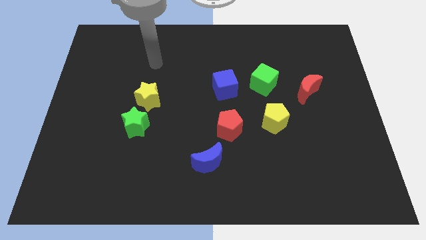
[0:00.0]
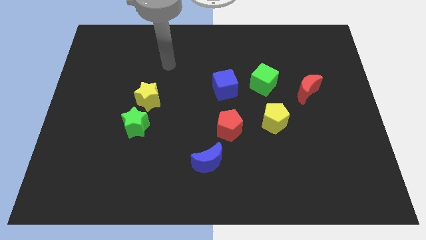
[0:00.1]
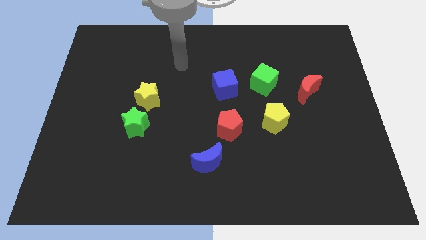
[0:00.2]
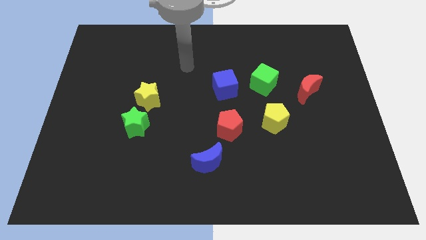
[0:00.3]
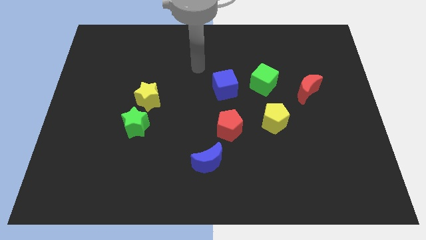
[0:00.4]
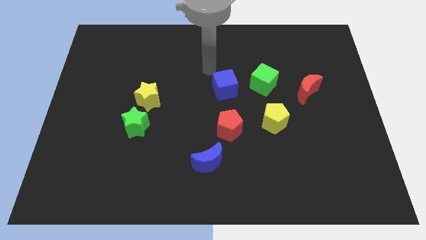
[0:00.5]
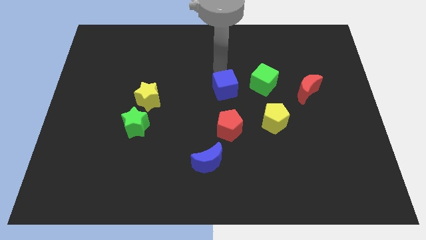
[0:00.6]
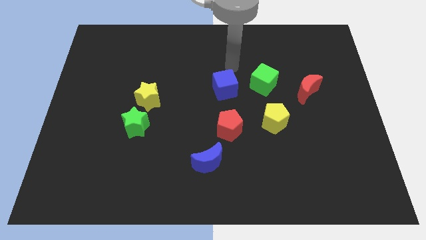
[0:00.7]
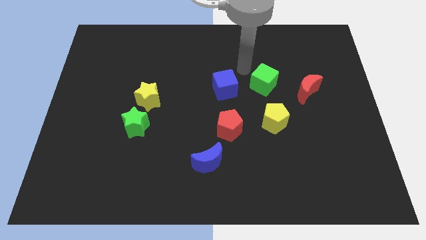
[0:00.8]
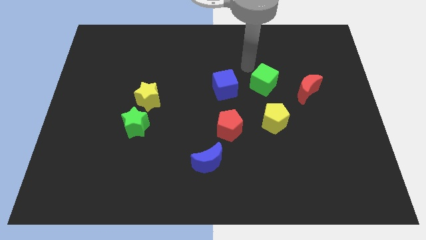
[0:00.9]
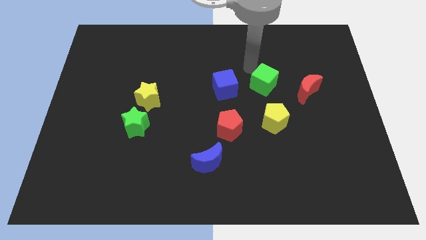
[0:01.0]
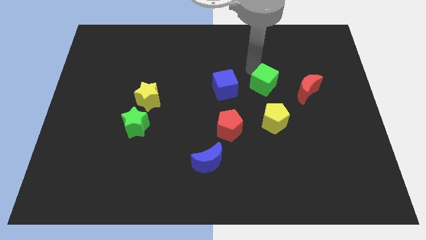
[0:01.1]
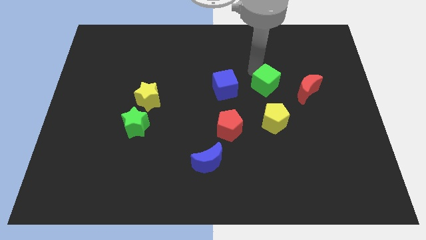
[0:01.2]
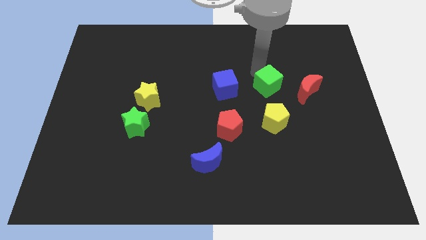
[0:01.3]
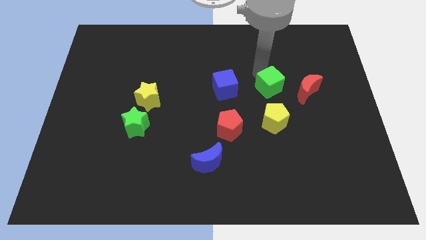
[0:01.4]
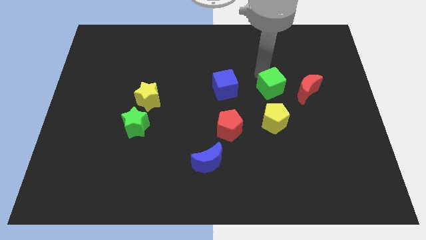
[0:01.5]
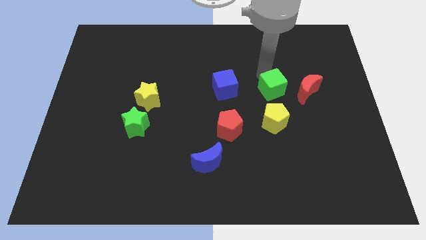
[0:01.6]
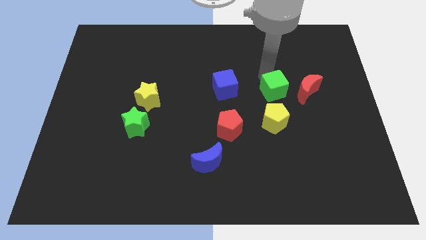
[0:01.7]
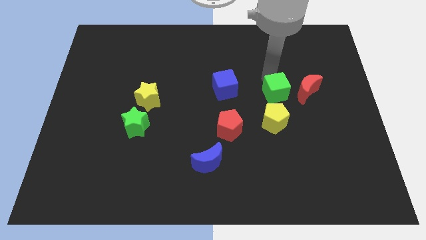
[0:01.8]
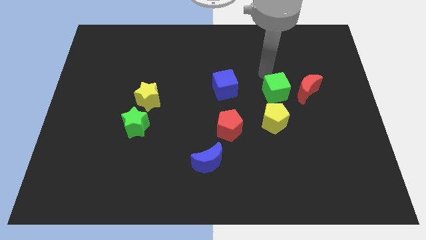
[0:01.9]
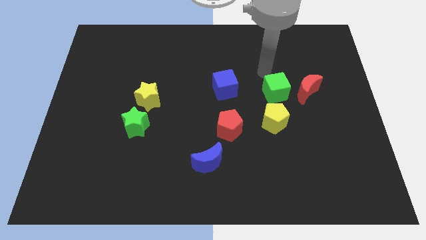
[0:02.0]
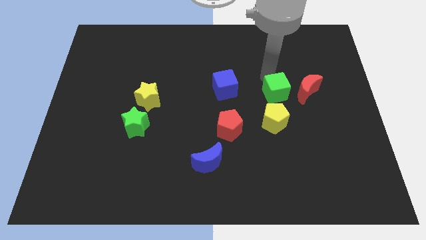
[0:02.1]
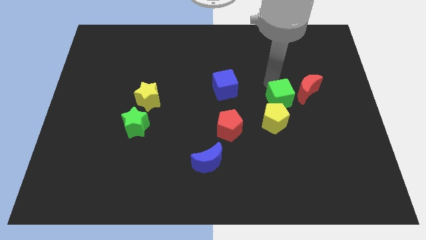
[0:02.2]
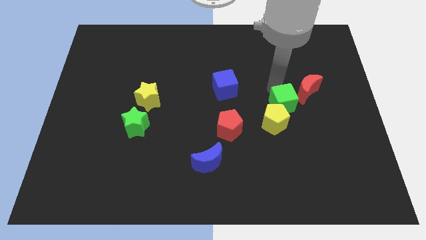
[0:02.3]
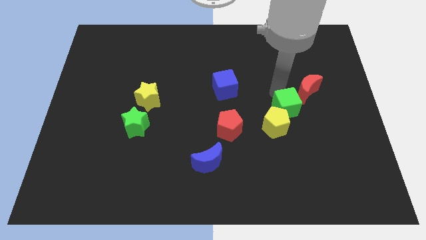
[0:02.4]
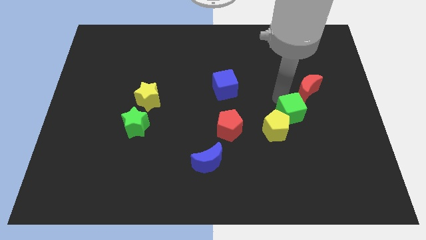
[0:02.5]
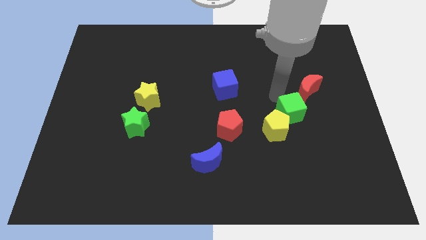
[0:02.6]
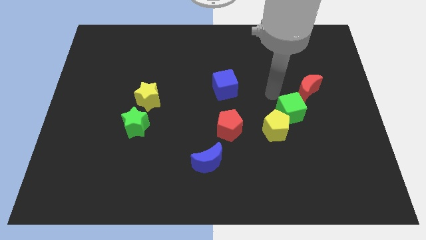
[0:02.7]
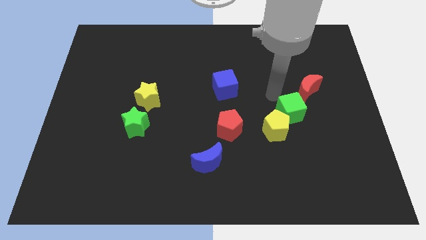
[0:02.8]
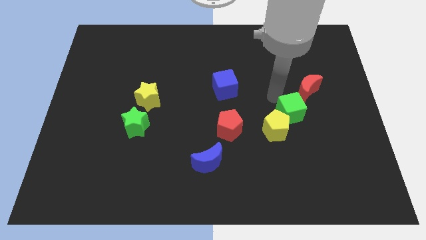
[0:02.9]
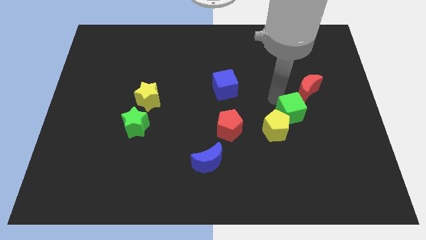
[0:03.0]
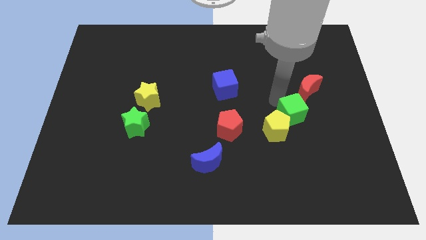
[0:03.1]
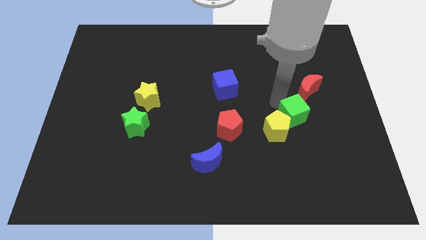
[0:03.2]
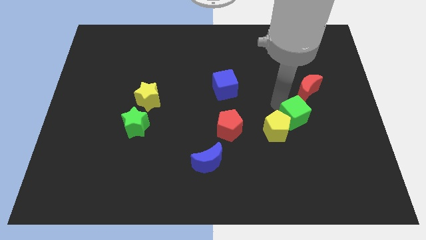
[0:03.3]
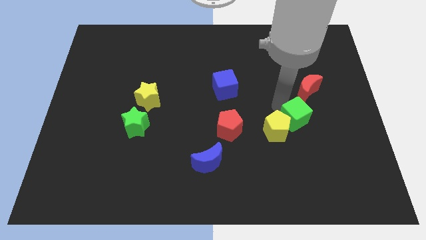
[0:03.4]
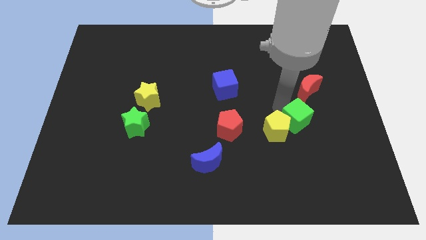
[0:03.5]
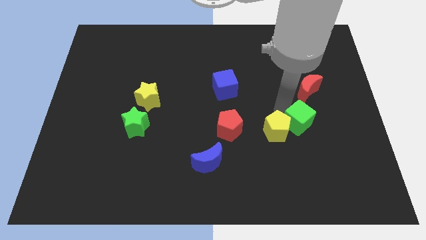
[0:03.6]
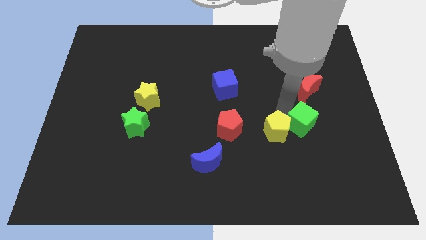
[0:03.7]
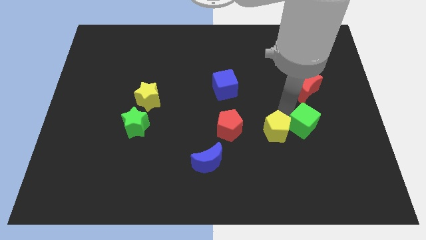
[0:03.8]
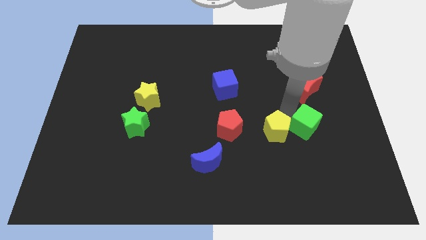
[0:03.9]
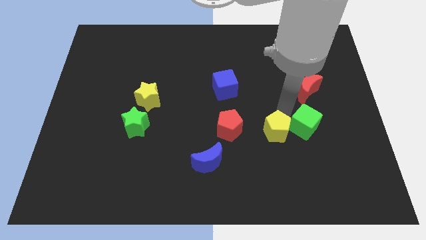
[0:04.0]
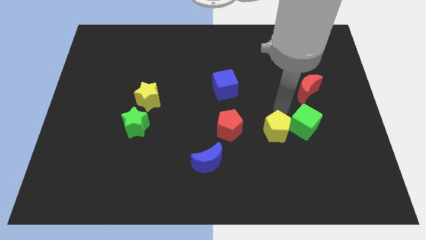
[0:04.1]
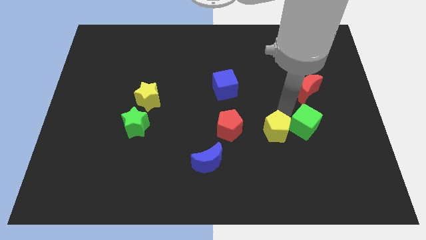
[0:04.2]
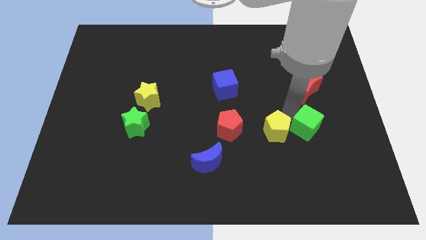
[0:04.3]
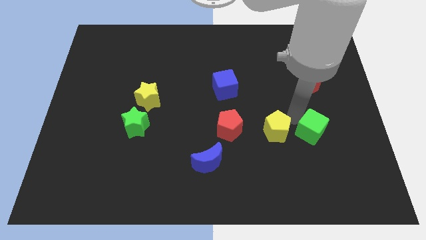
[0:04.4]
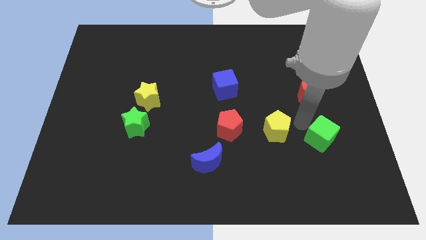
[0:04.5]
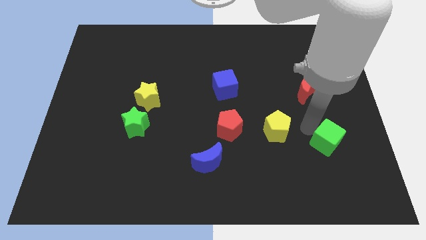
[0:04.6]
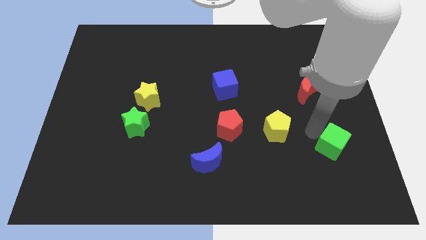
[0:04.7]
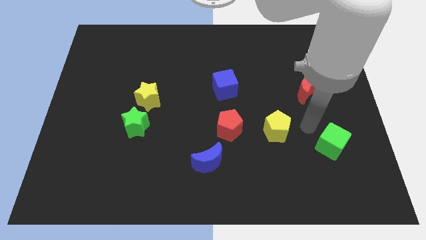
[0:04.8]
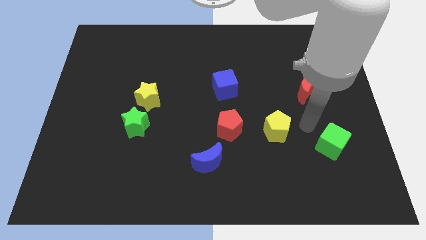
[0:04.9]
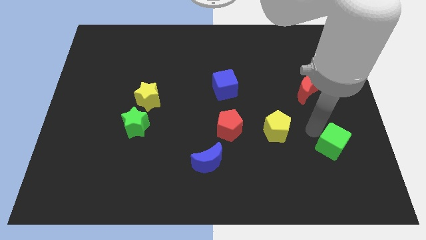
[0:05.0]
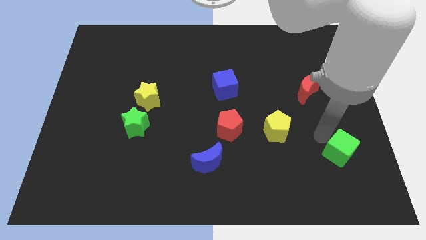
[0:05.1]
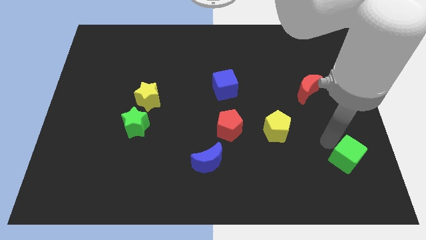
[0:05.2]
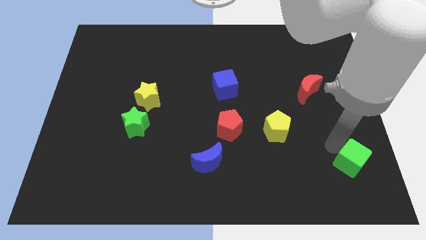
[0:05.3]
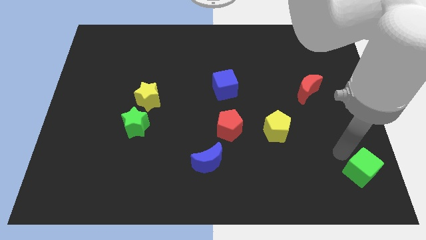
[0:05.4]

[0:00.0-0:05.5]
slide the green cube to the bottom right corner

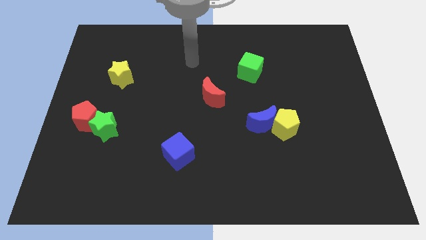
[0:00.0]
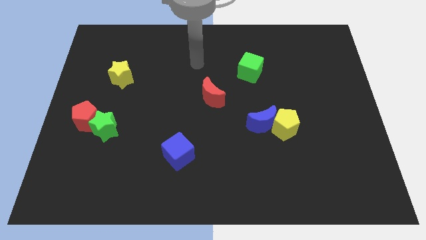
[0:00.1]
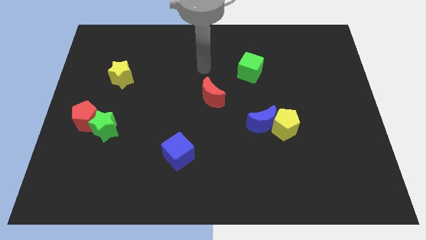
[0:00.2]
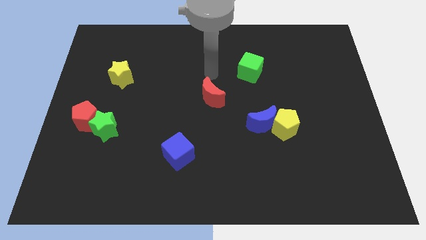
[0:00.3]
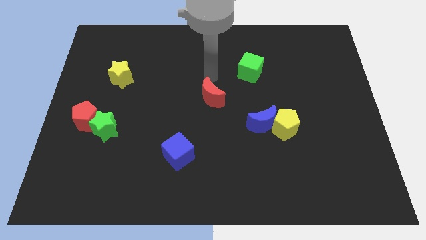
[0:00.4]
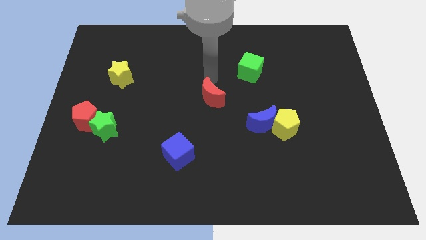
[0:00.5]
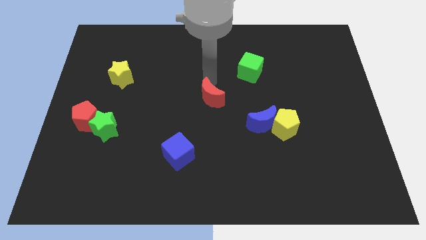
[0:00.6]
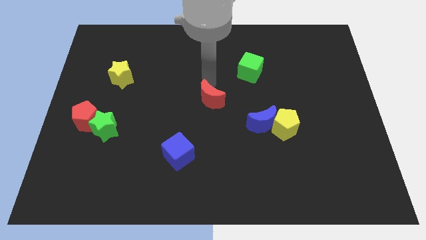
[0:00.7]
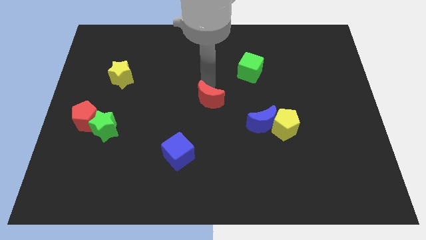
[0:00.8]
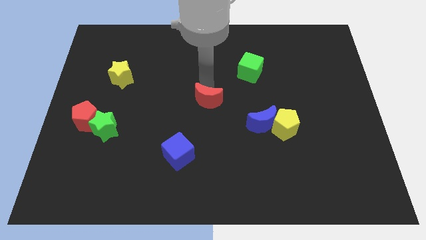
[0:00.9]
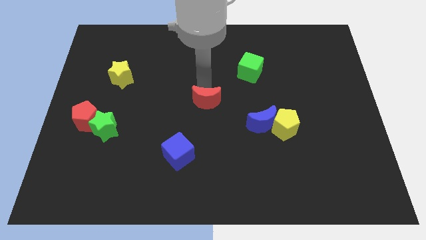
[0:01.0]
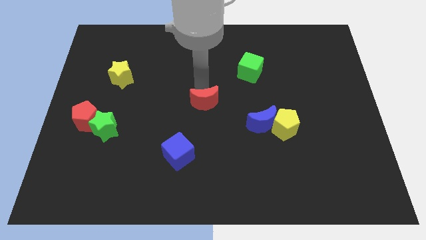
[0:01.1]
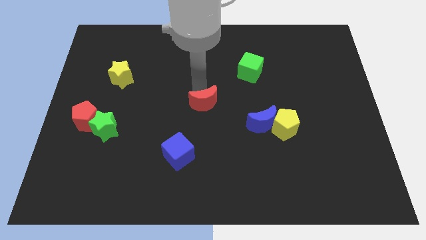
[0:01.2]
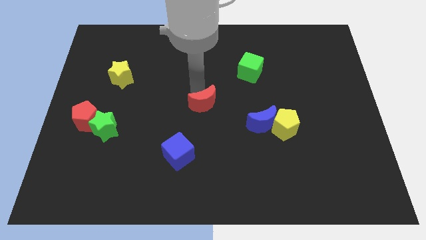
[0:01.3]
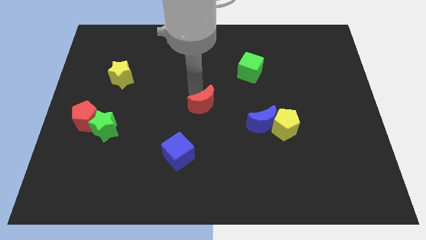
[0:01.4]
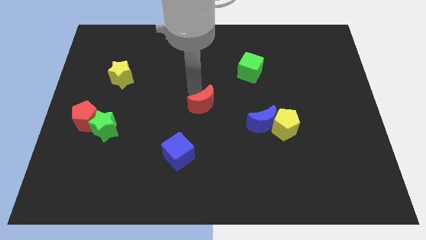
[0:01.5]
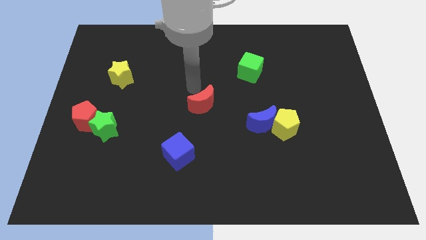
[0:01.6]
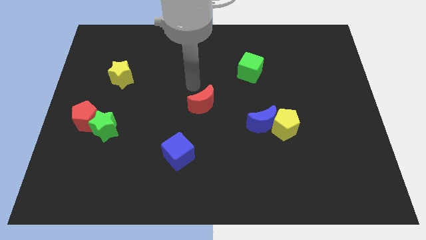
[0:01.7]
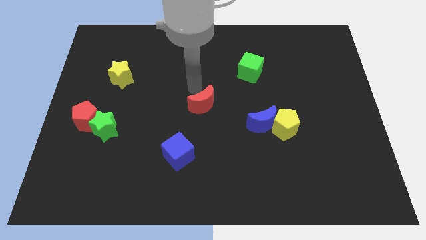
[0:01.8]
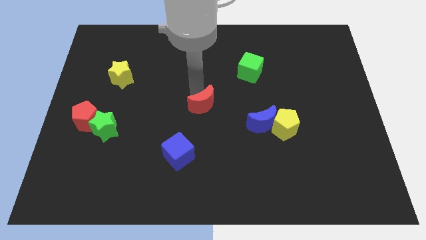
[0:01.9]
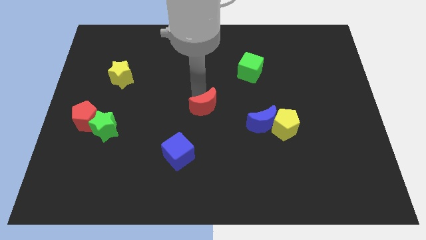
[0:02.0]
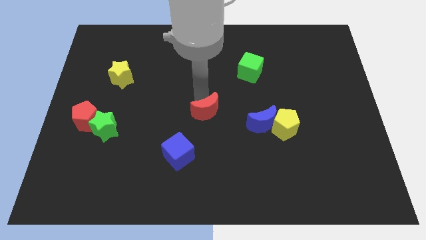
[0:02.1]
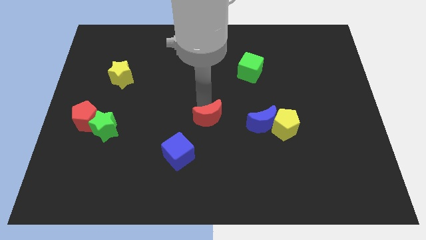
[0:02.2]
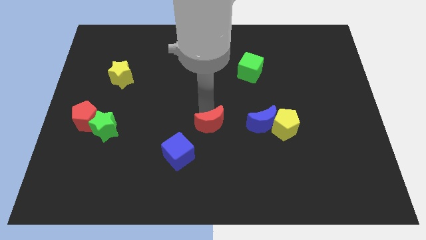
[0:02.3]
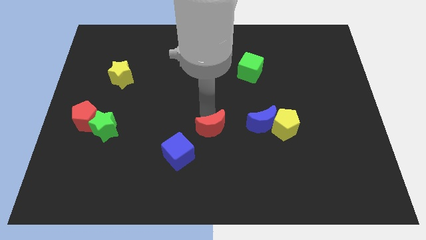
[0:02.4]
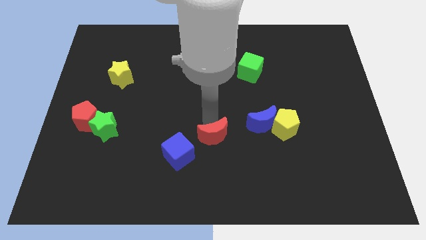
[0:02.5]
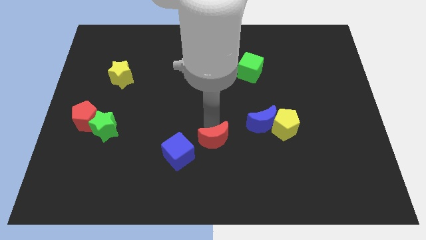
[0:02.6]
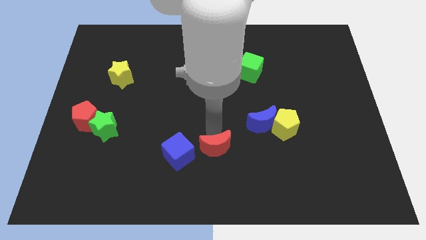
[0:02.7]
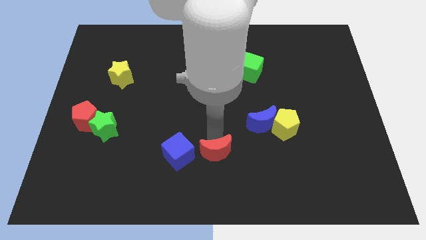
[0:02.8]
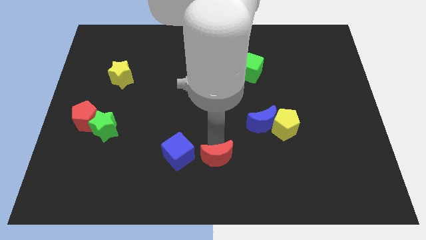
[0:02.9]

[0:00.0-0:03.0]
put the red moon to the bottom
